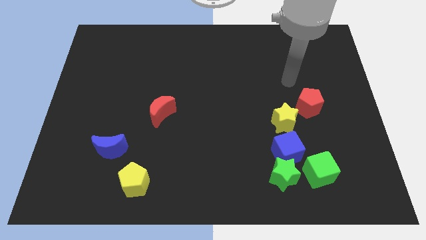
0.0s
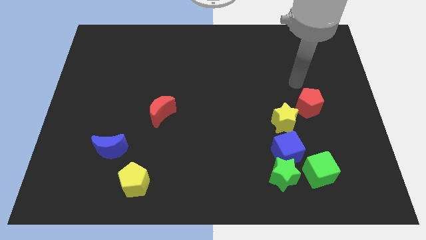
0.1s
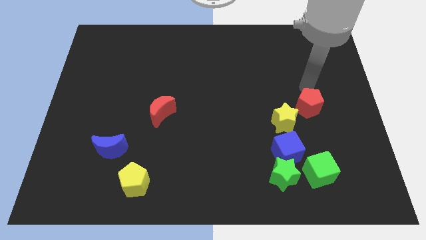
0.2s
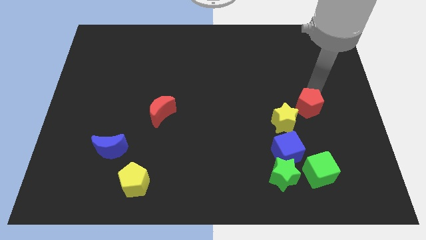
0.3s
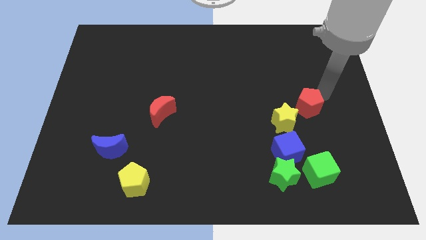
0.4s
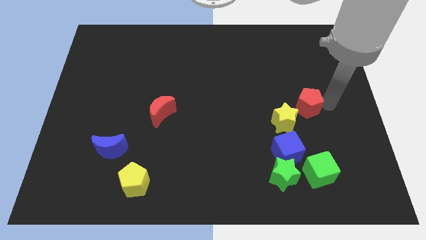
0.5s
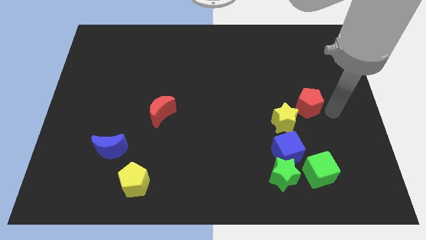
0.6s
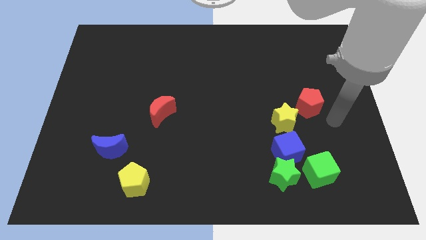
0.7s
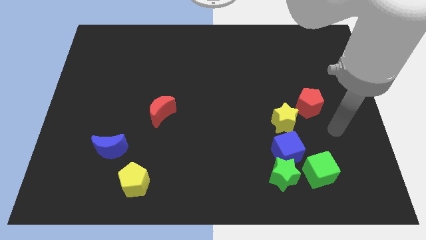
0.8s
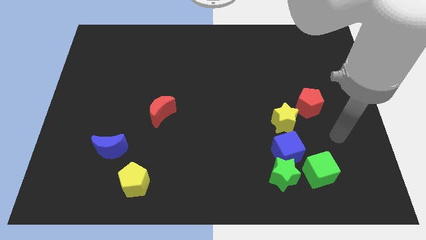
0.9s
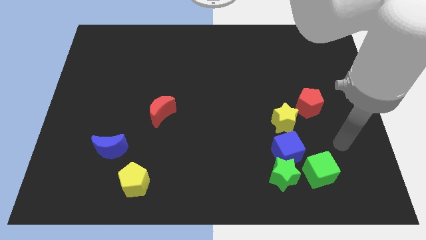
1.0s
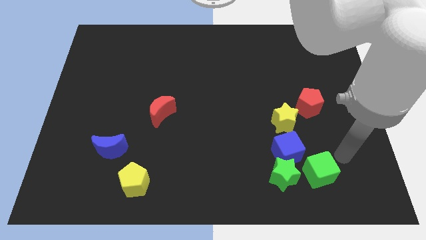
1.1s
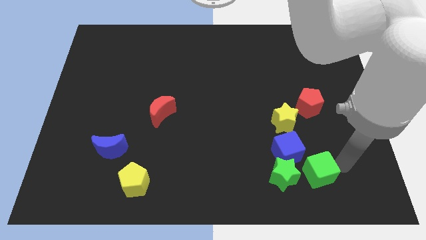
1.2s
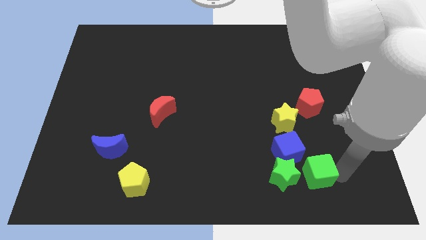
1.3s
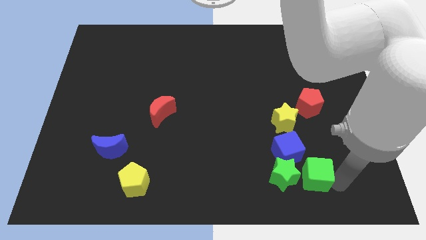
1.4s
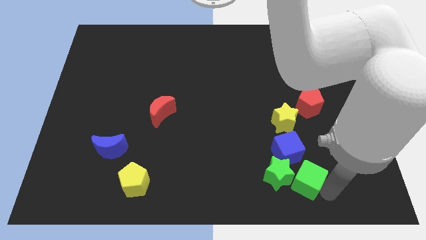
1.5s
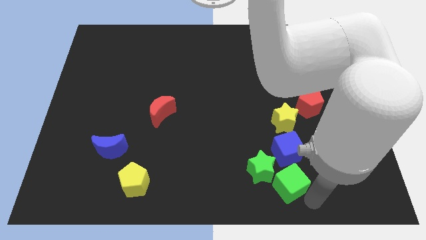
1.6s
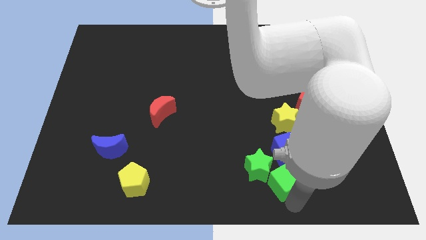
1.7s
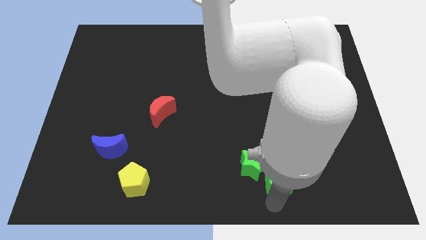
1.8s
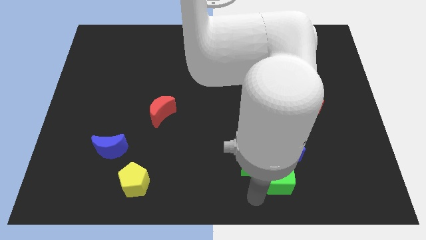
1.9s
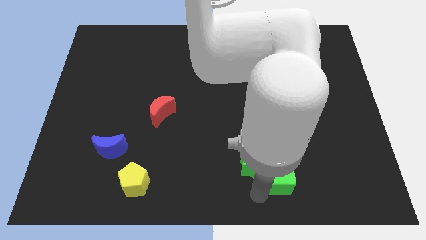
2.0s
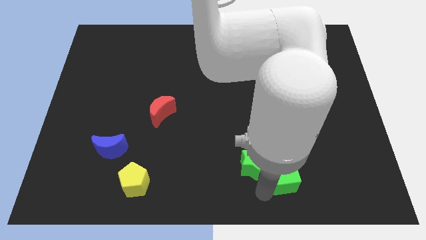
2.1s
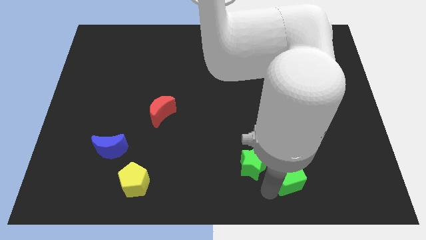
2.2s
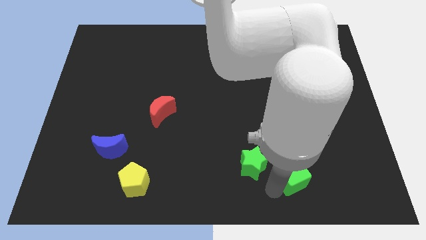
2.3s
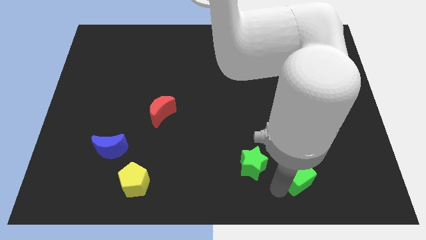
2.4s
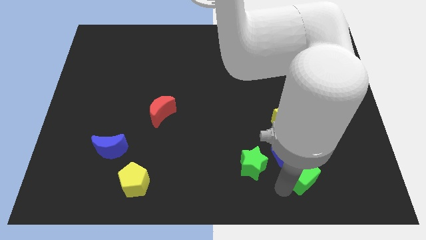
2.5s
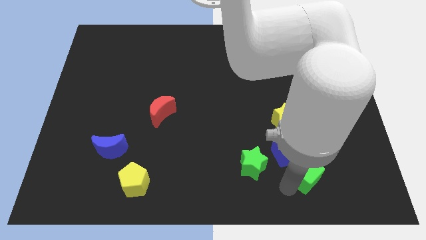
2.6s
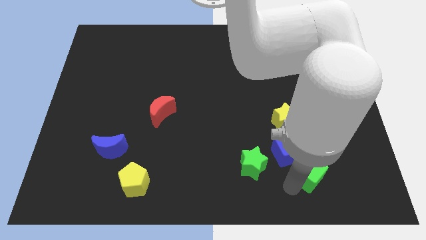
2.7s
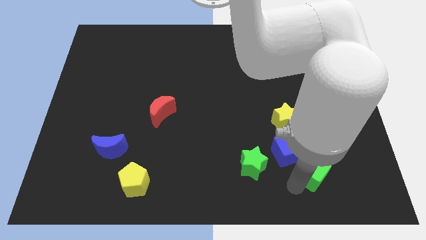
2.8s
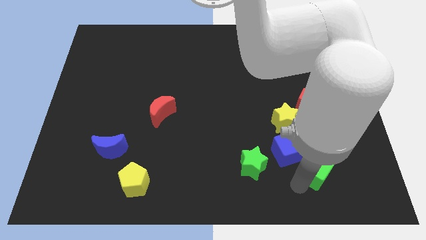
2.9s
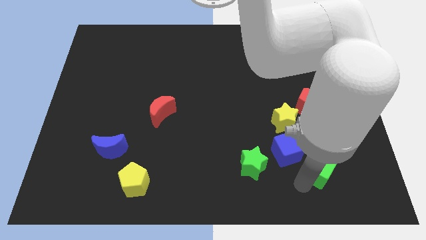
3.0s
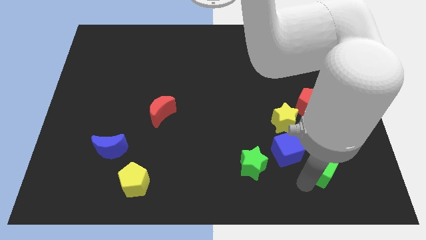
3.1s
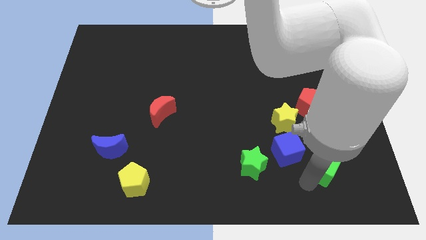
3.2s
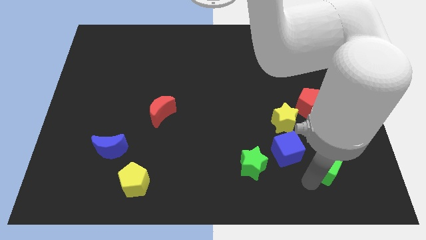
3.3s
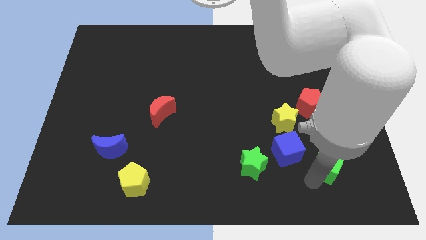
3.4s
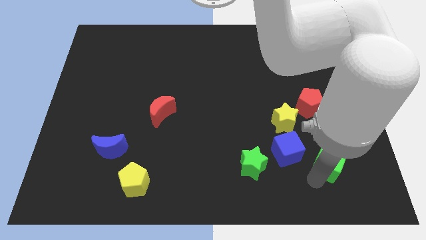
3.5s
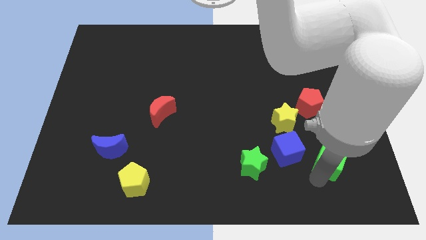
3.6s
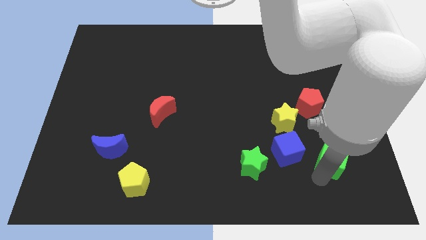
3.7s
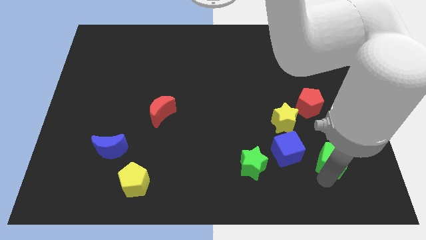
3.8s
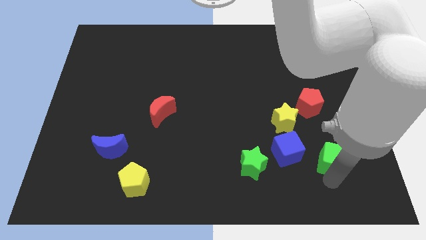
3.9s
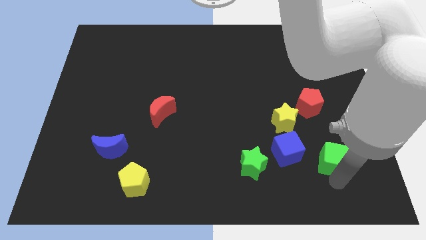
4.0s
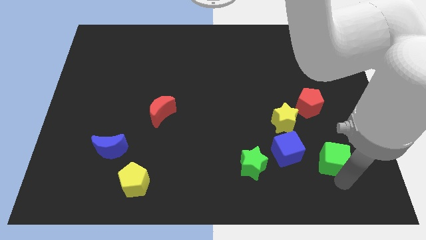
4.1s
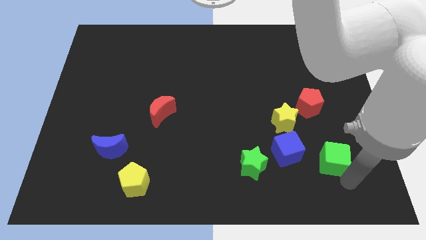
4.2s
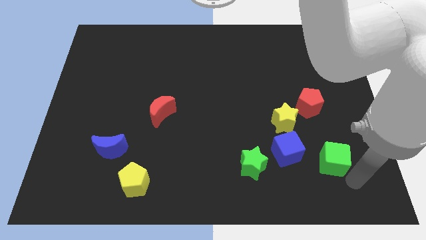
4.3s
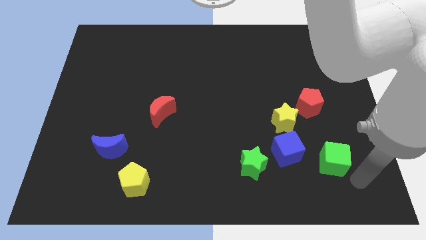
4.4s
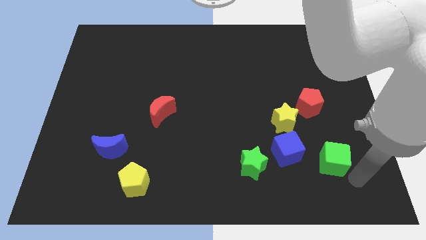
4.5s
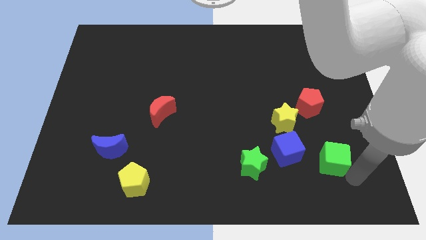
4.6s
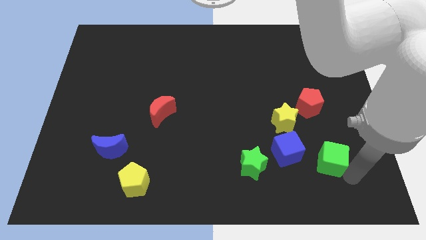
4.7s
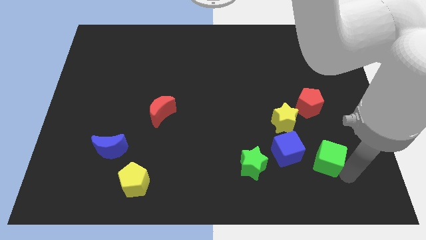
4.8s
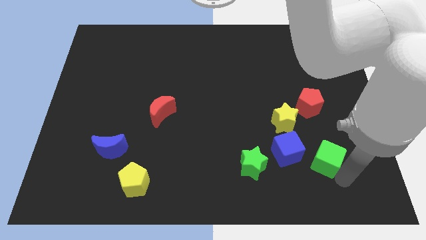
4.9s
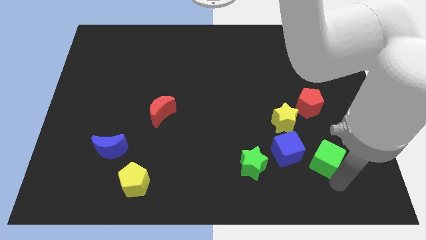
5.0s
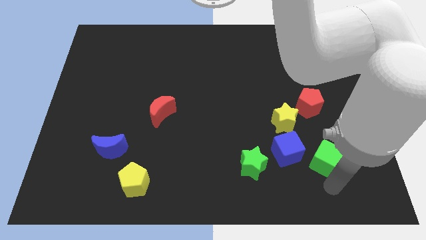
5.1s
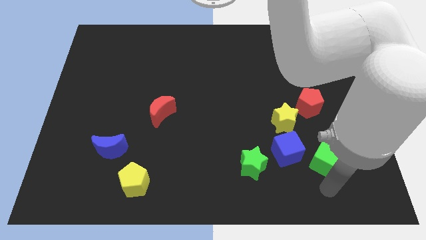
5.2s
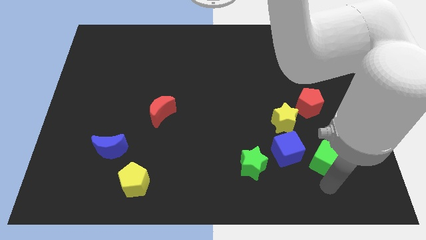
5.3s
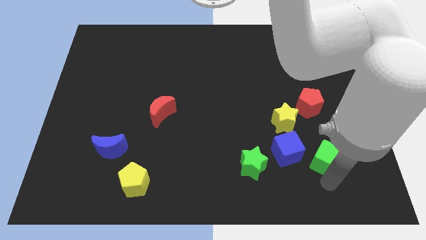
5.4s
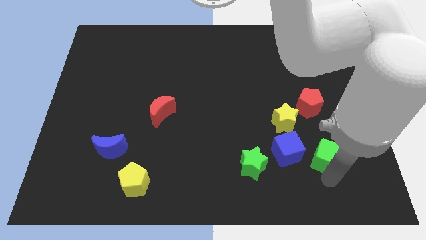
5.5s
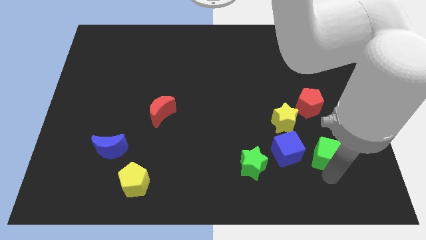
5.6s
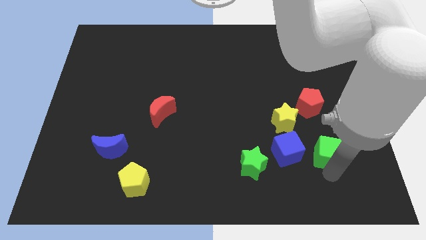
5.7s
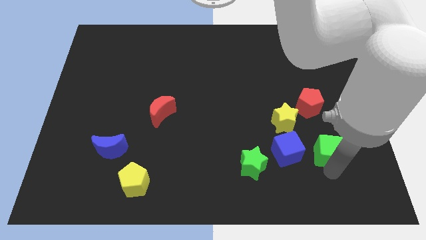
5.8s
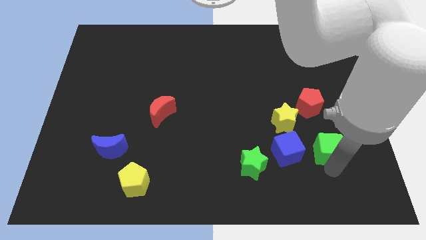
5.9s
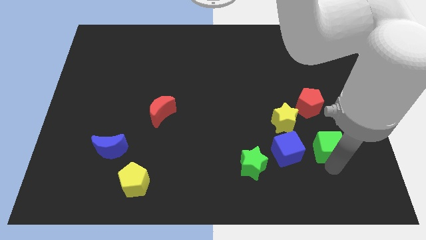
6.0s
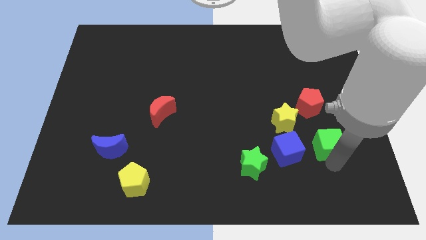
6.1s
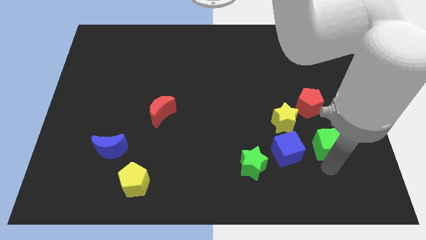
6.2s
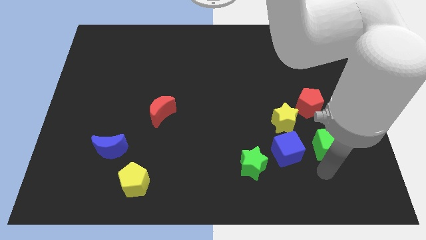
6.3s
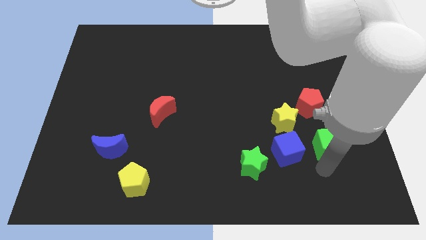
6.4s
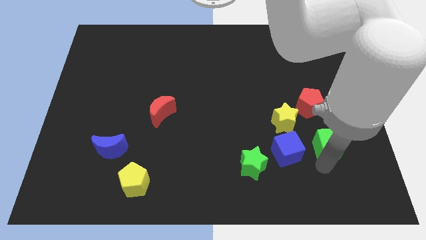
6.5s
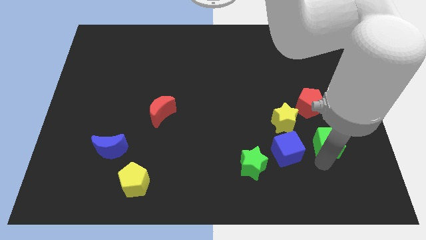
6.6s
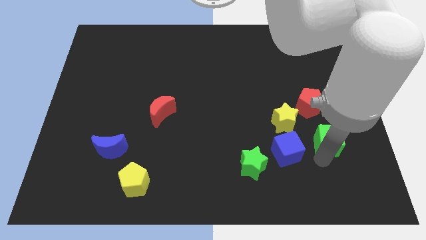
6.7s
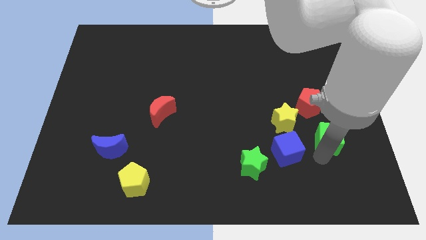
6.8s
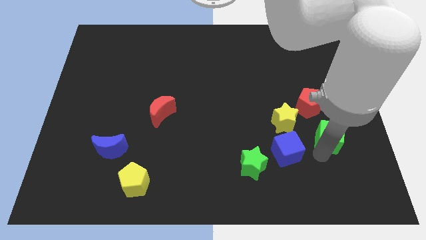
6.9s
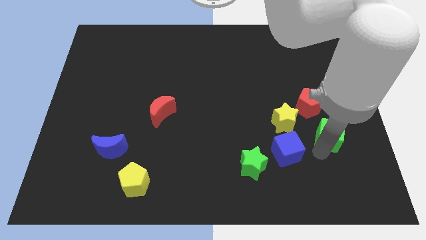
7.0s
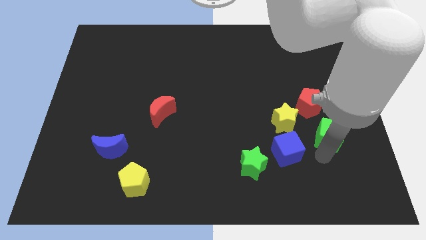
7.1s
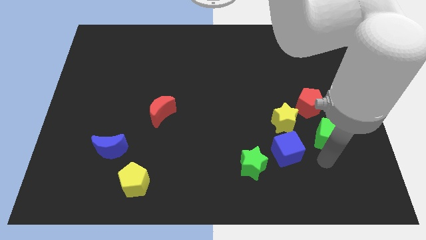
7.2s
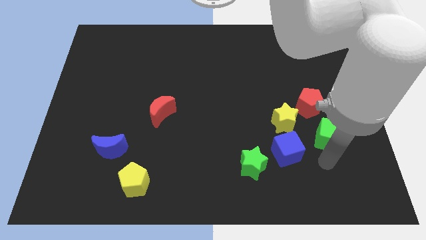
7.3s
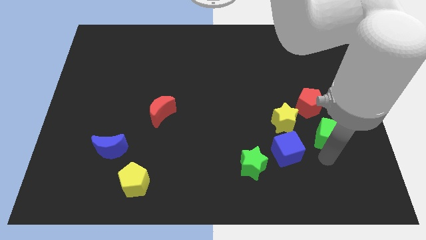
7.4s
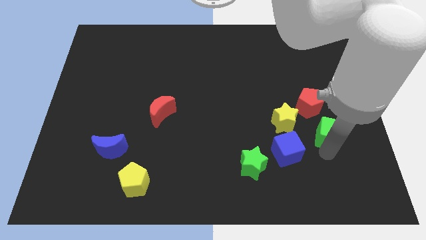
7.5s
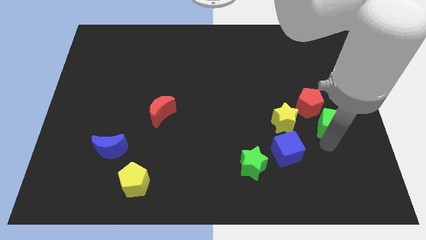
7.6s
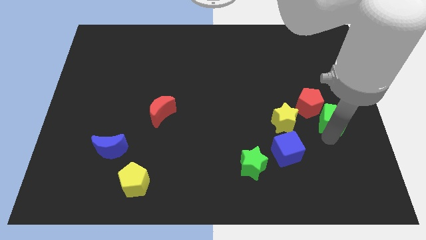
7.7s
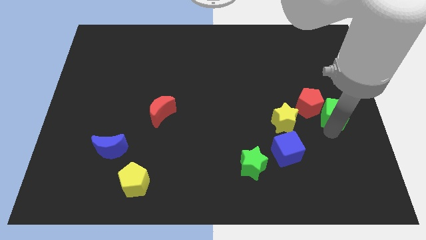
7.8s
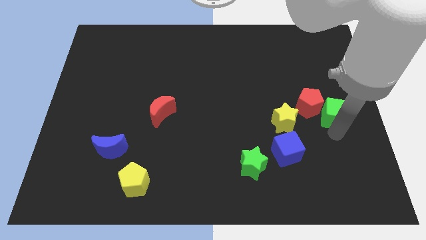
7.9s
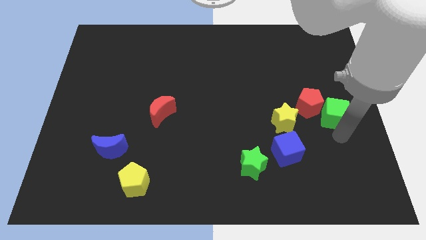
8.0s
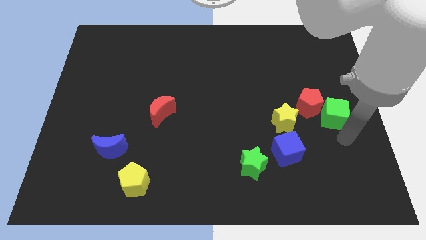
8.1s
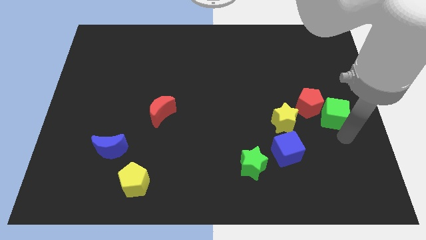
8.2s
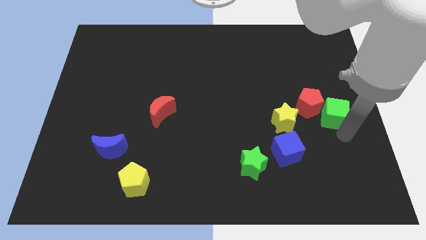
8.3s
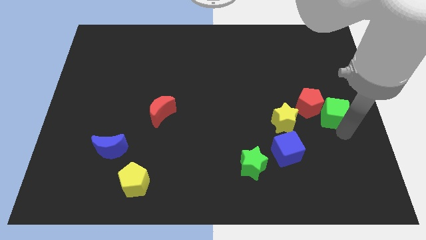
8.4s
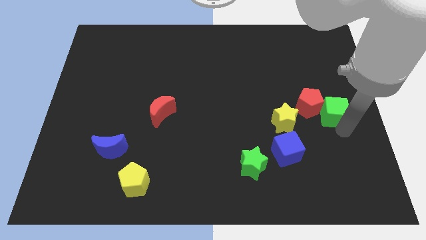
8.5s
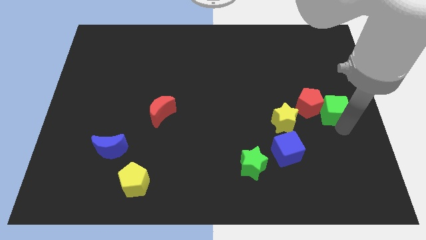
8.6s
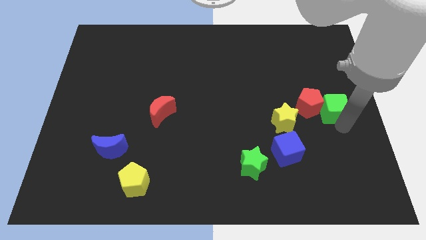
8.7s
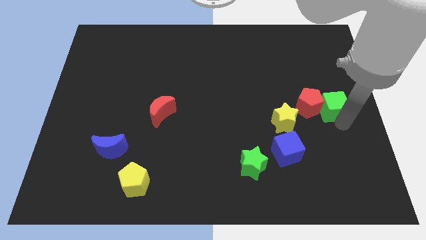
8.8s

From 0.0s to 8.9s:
move the green cube to the top right side of the red pentagon
